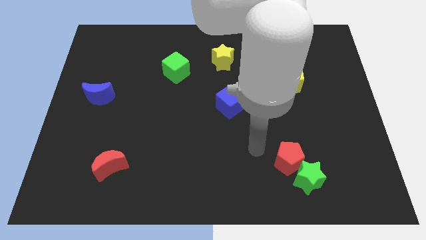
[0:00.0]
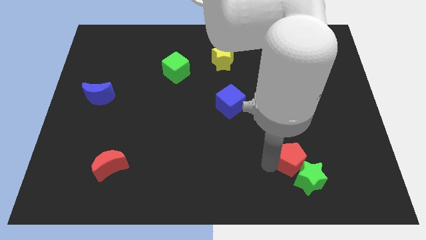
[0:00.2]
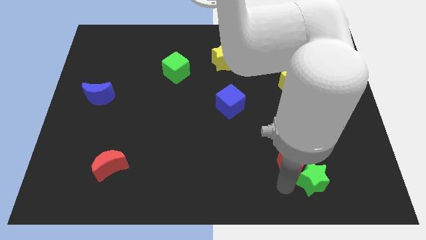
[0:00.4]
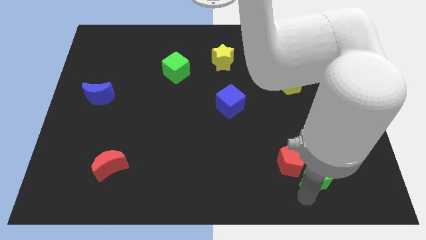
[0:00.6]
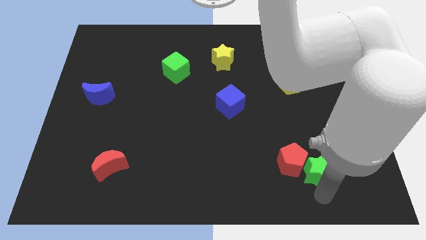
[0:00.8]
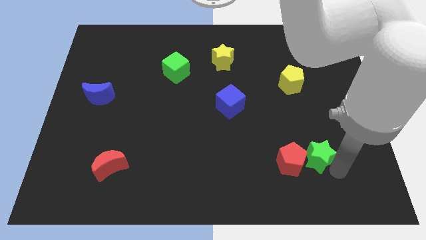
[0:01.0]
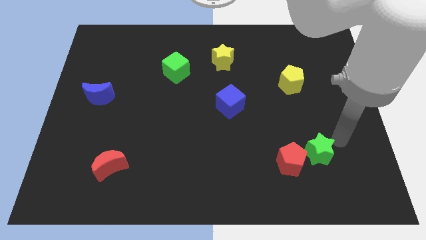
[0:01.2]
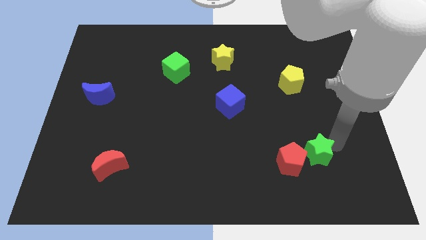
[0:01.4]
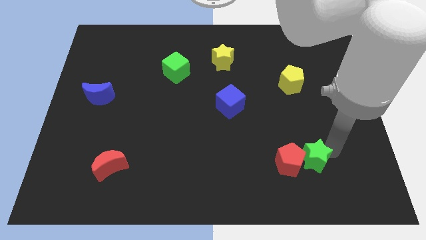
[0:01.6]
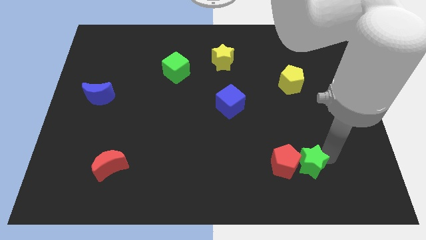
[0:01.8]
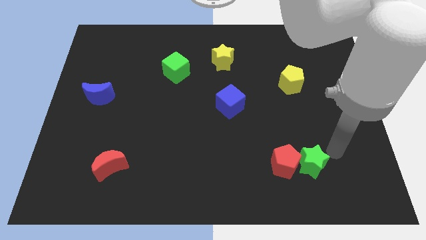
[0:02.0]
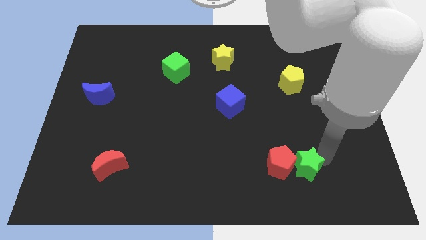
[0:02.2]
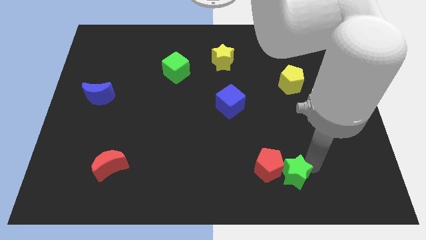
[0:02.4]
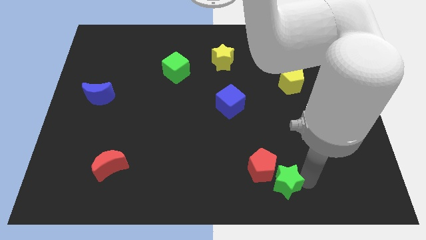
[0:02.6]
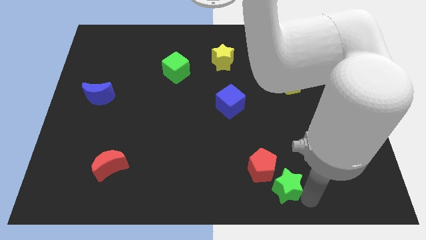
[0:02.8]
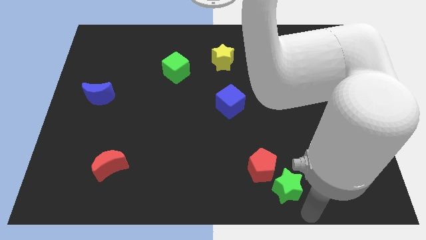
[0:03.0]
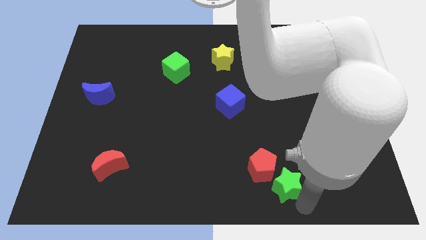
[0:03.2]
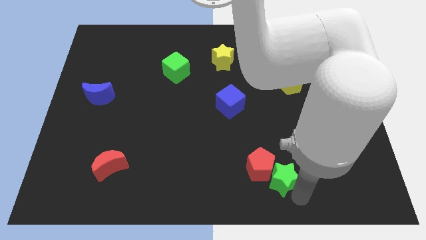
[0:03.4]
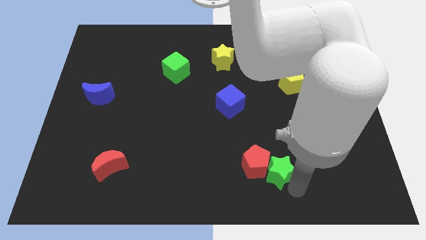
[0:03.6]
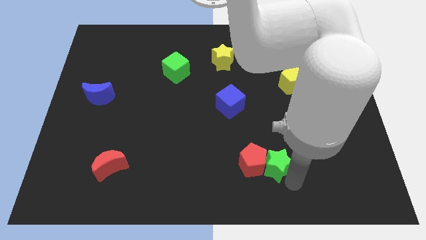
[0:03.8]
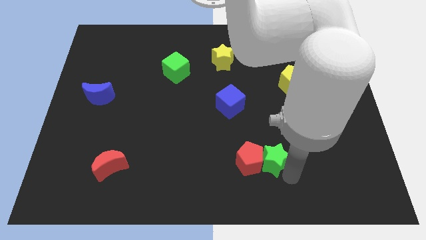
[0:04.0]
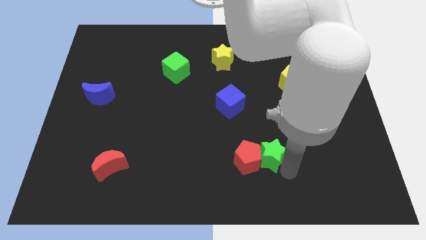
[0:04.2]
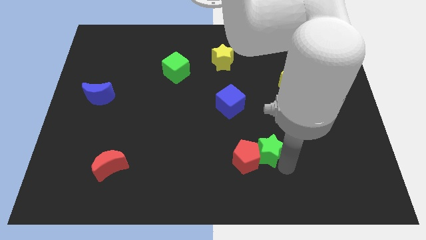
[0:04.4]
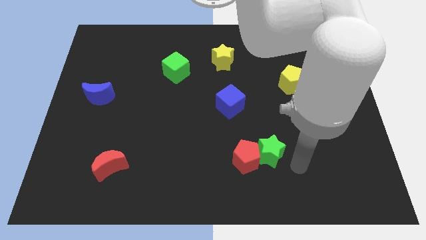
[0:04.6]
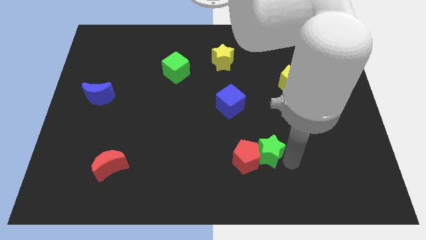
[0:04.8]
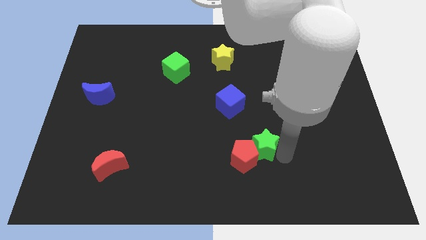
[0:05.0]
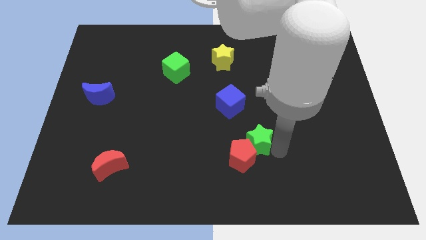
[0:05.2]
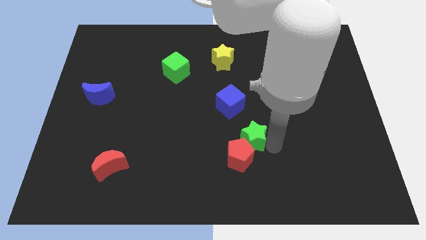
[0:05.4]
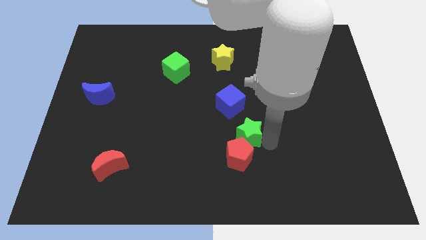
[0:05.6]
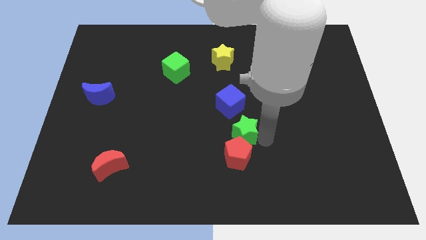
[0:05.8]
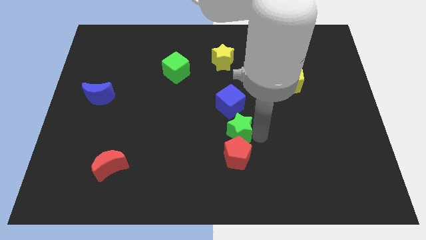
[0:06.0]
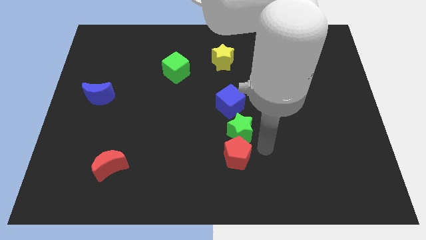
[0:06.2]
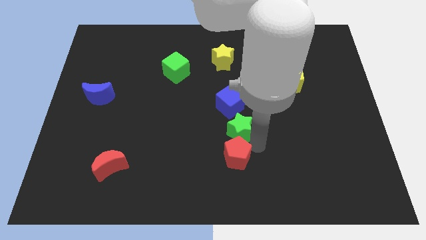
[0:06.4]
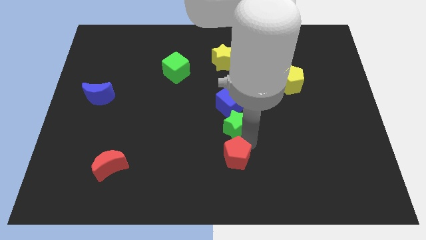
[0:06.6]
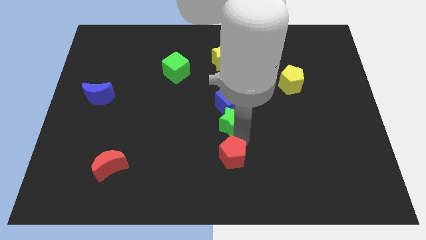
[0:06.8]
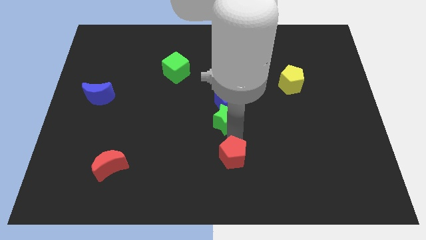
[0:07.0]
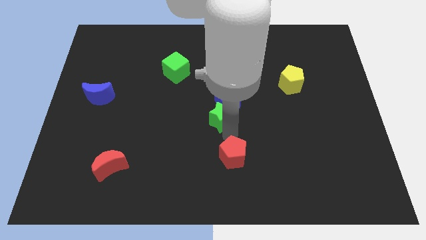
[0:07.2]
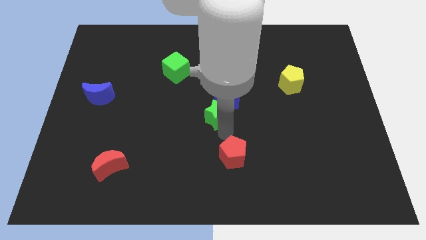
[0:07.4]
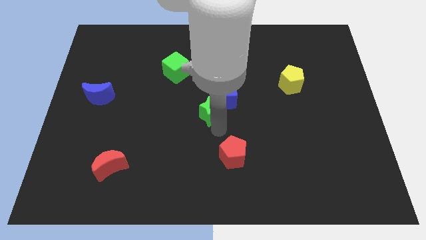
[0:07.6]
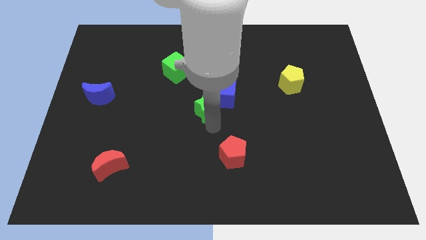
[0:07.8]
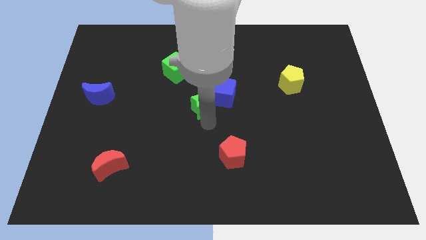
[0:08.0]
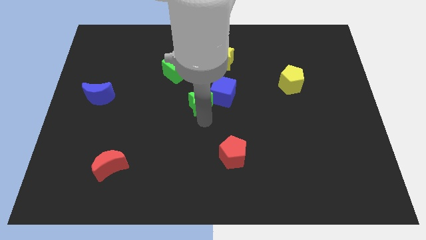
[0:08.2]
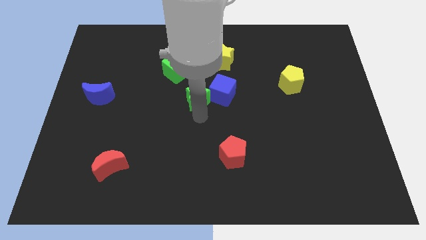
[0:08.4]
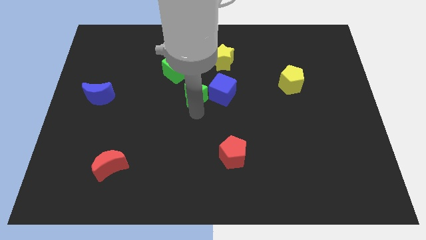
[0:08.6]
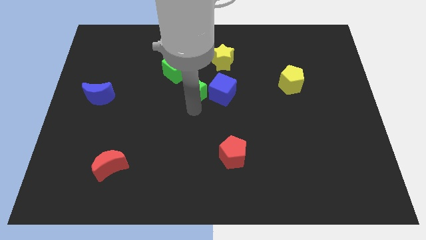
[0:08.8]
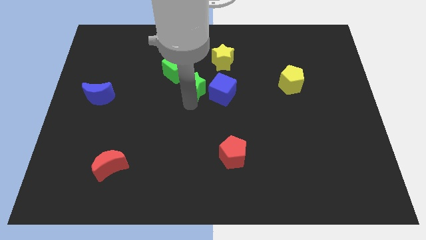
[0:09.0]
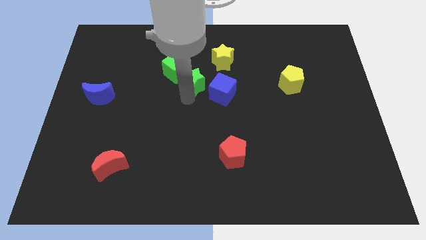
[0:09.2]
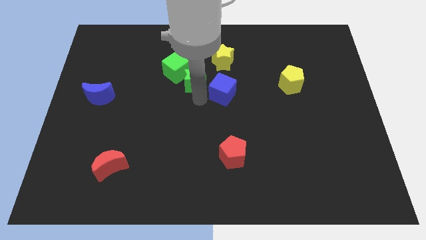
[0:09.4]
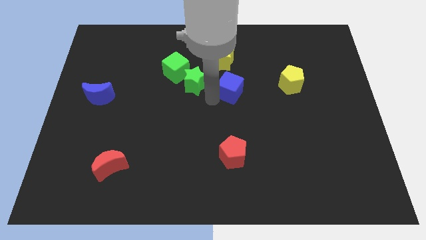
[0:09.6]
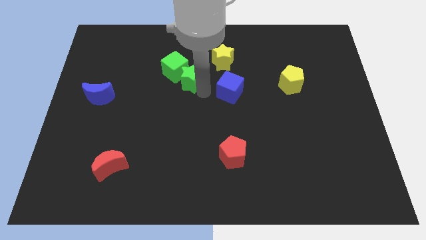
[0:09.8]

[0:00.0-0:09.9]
move the green star next to the green cube

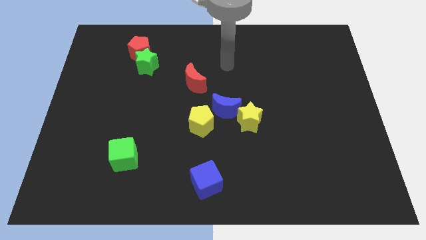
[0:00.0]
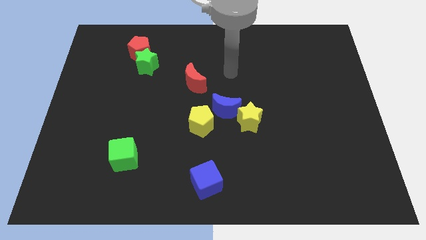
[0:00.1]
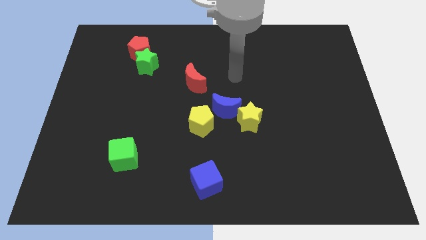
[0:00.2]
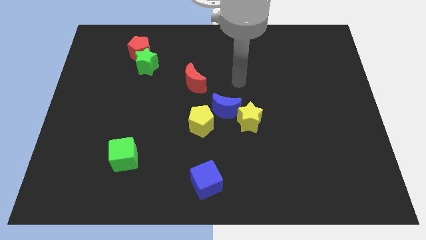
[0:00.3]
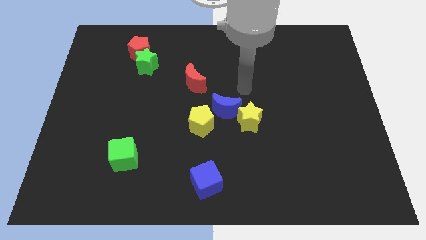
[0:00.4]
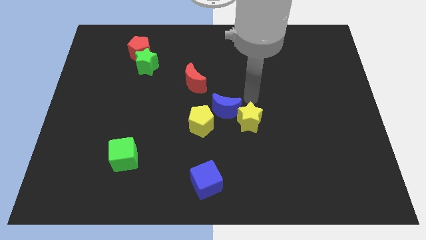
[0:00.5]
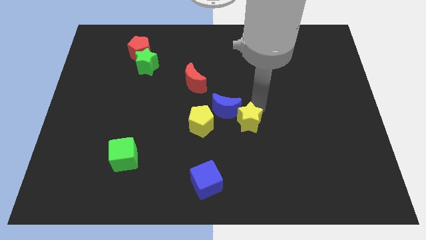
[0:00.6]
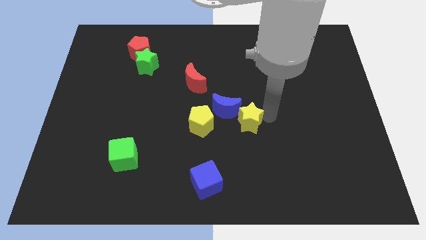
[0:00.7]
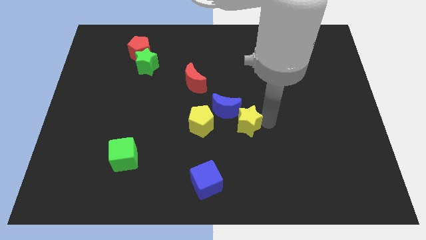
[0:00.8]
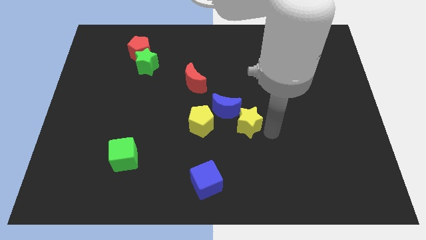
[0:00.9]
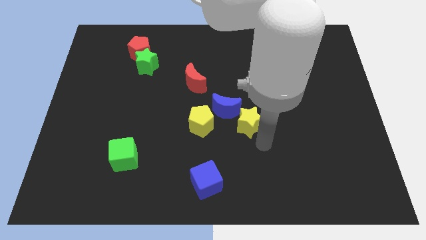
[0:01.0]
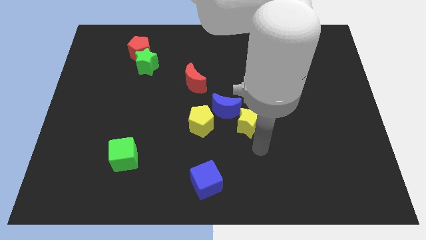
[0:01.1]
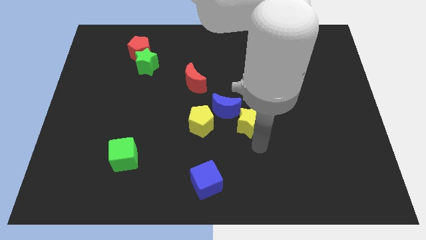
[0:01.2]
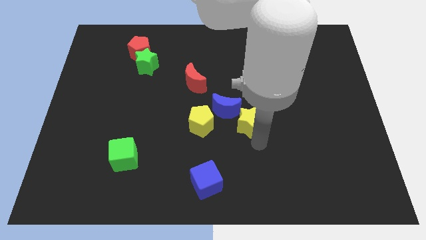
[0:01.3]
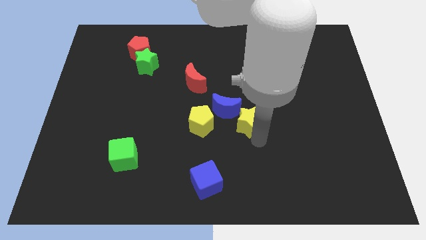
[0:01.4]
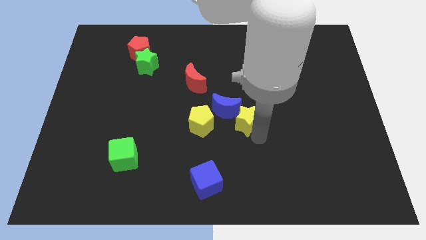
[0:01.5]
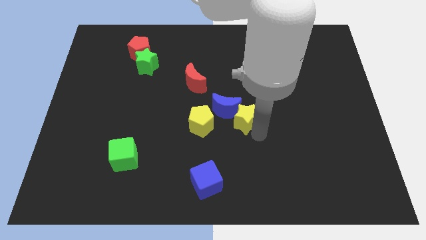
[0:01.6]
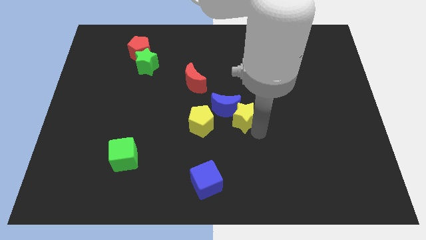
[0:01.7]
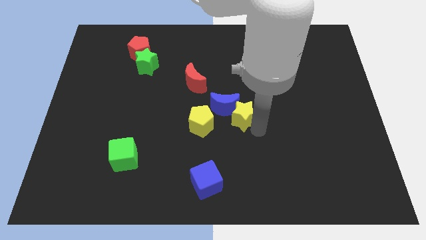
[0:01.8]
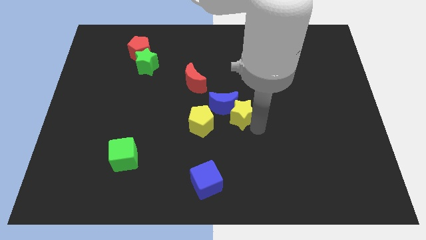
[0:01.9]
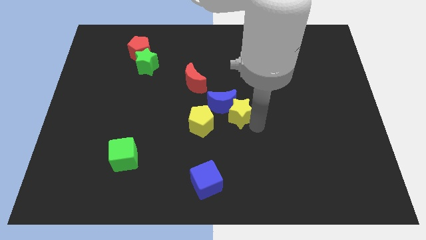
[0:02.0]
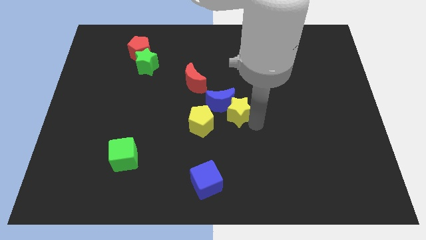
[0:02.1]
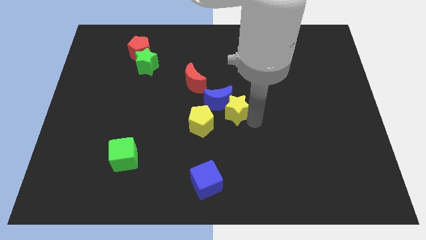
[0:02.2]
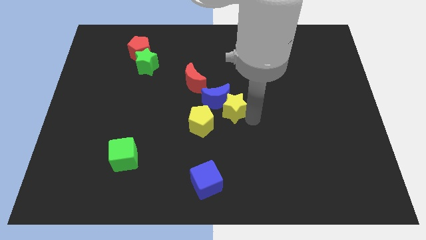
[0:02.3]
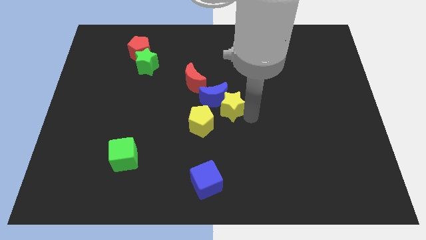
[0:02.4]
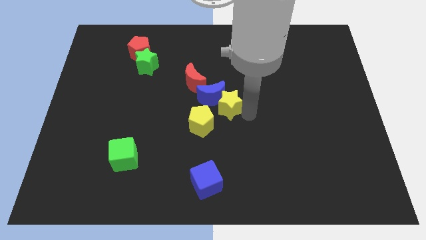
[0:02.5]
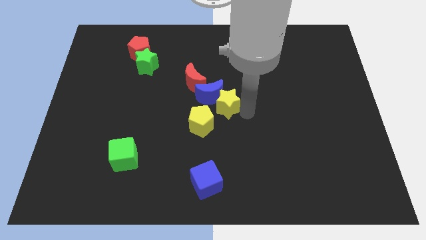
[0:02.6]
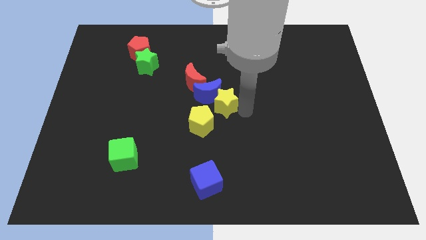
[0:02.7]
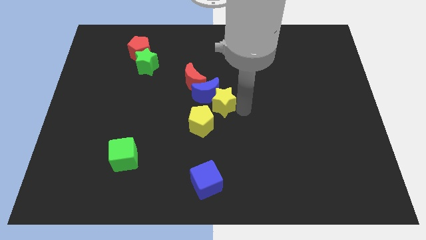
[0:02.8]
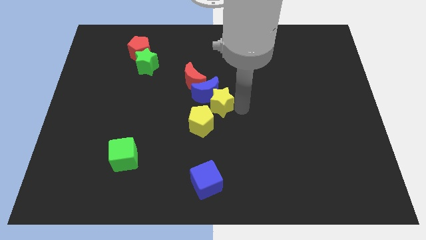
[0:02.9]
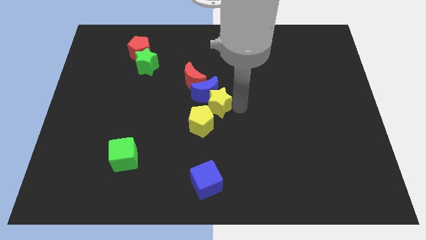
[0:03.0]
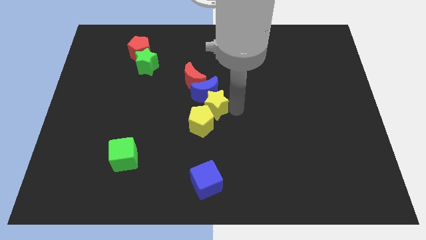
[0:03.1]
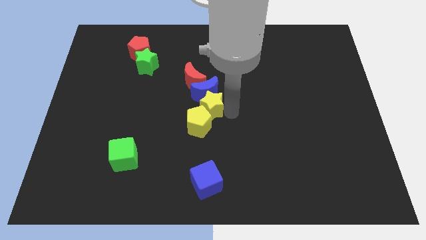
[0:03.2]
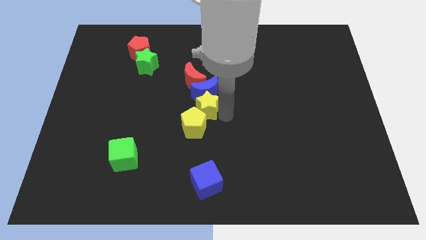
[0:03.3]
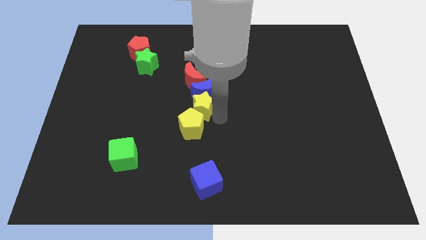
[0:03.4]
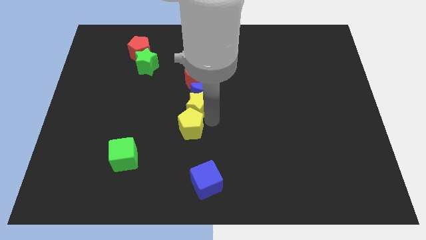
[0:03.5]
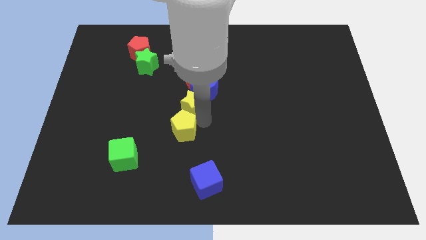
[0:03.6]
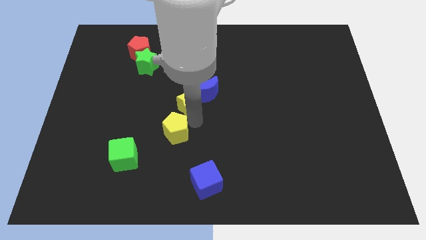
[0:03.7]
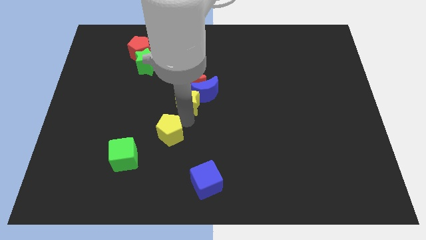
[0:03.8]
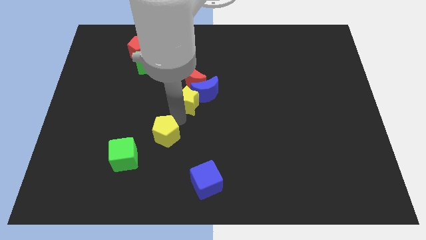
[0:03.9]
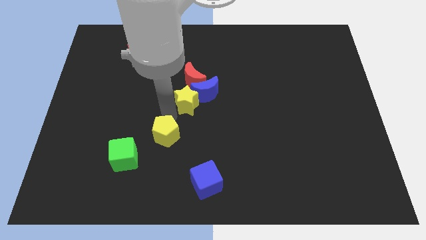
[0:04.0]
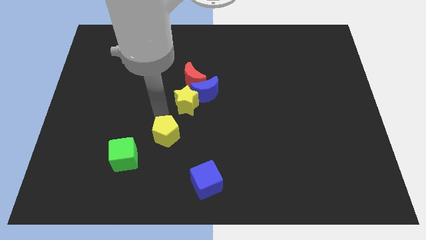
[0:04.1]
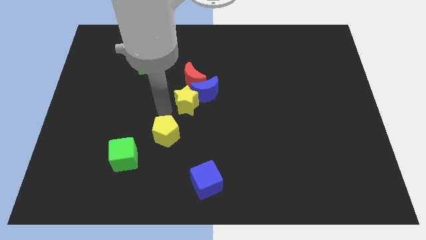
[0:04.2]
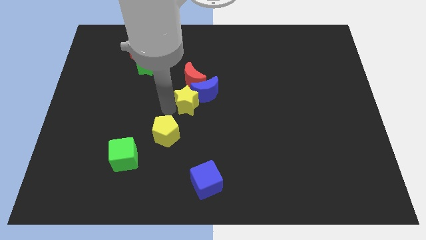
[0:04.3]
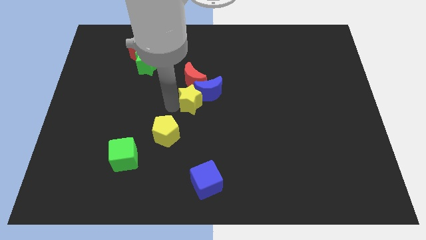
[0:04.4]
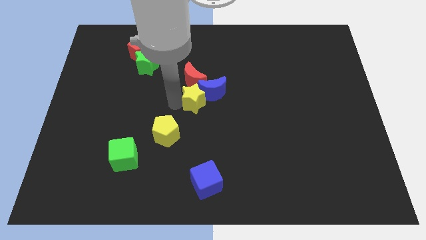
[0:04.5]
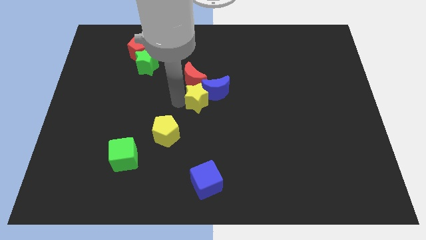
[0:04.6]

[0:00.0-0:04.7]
slide the yellow star towards the red moon
